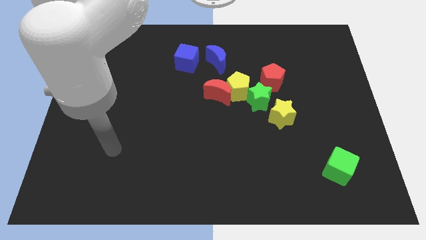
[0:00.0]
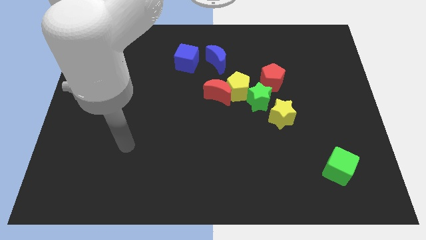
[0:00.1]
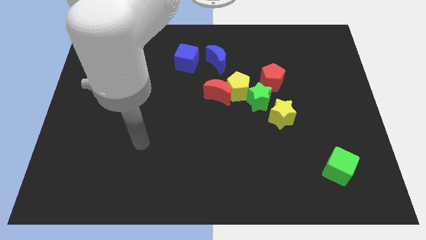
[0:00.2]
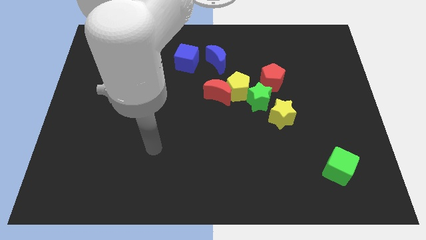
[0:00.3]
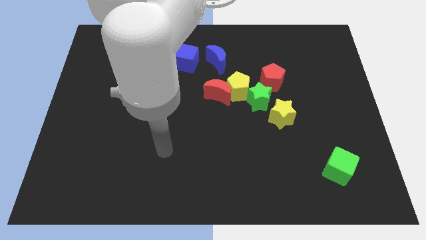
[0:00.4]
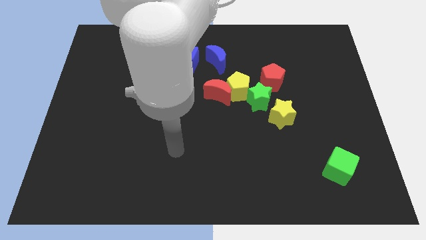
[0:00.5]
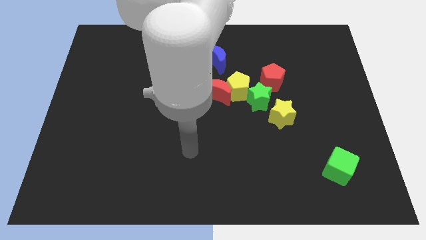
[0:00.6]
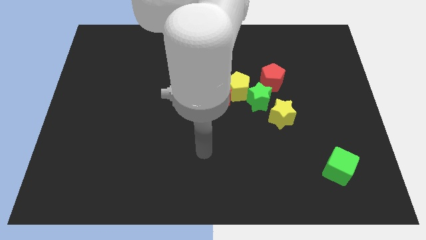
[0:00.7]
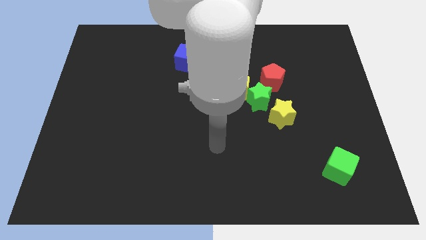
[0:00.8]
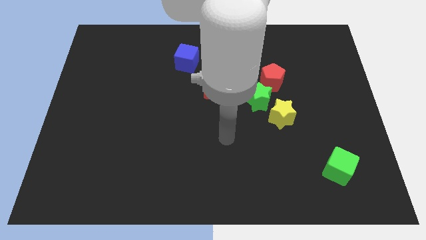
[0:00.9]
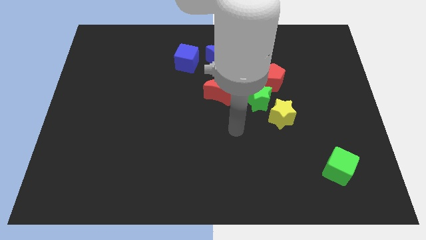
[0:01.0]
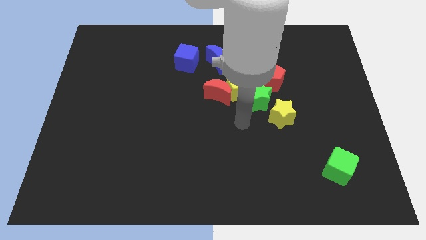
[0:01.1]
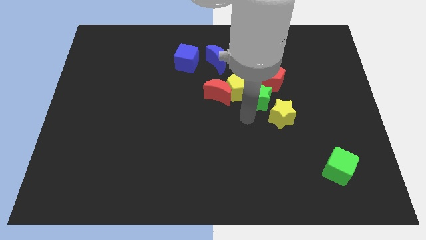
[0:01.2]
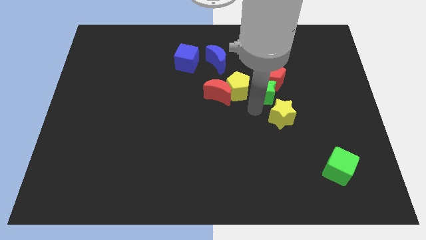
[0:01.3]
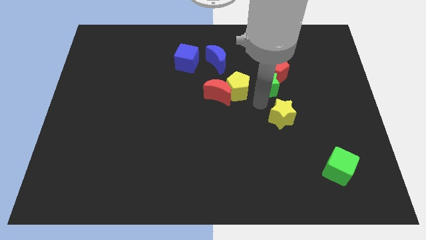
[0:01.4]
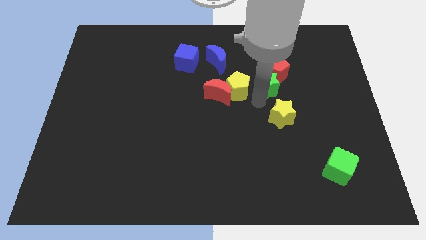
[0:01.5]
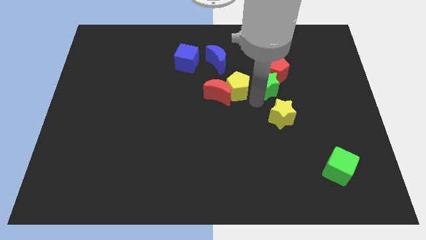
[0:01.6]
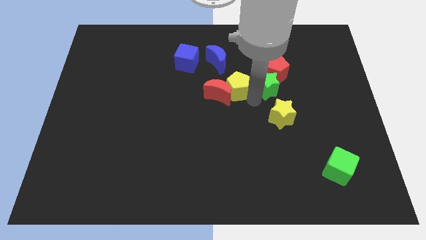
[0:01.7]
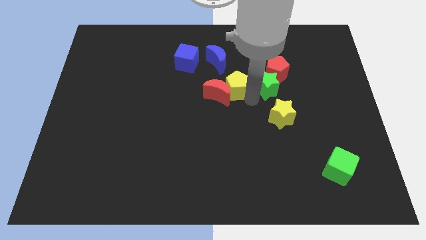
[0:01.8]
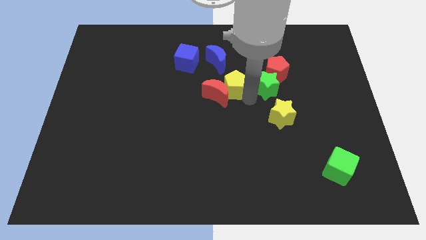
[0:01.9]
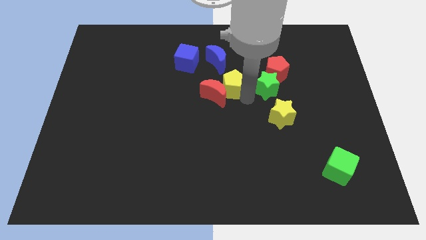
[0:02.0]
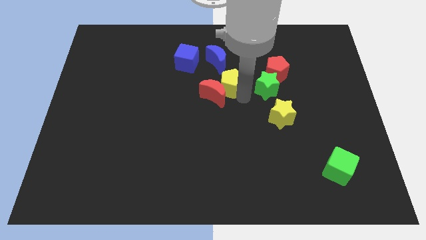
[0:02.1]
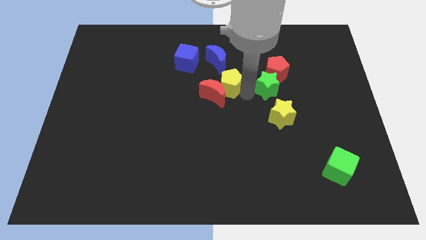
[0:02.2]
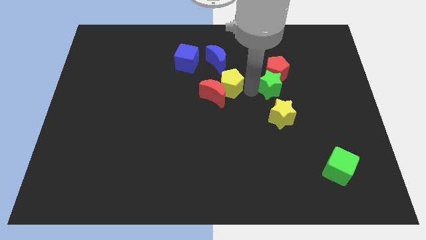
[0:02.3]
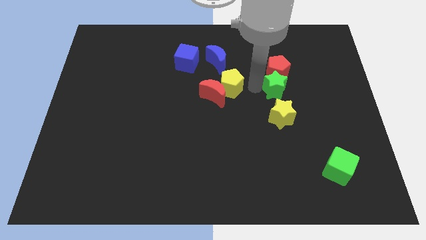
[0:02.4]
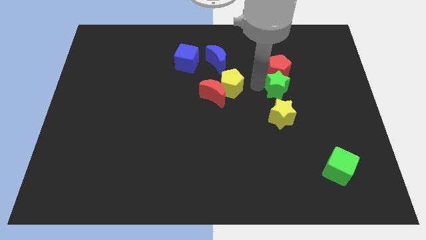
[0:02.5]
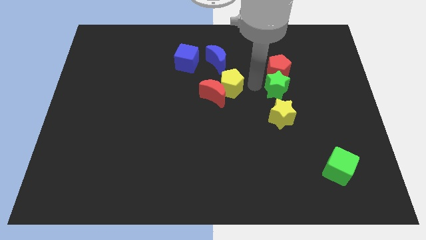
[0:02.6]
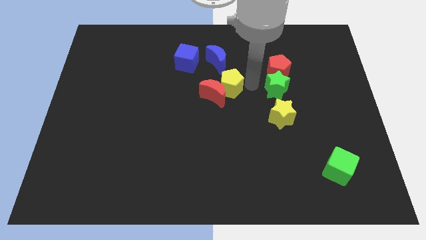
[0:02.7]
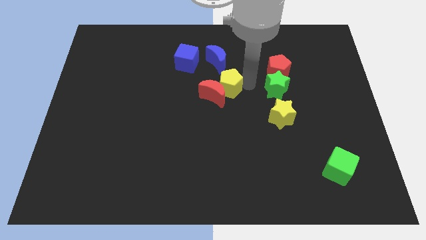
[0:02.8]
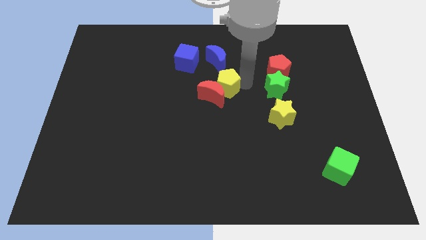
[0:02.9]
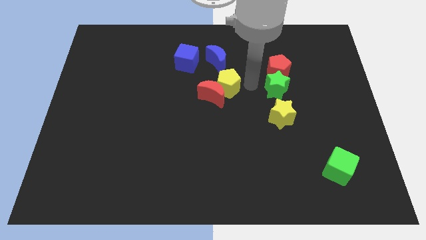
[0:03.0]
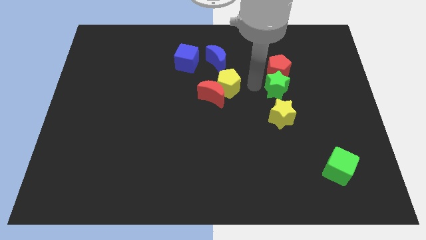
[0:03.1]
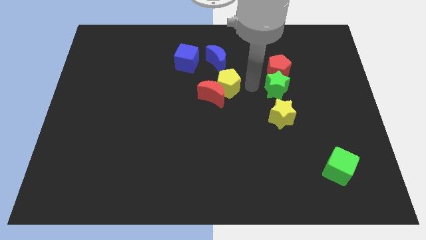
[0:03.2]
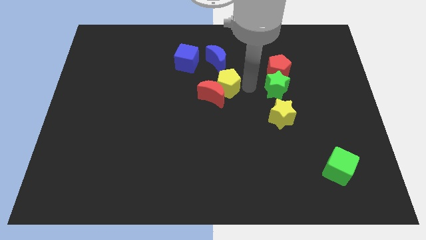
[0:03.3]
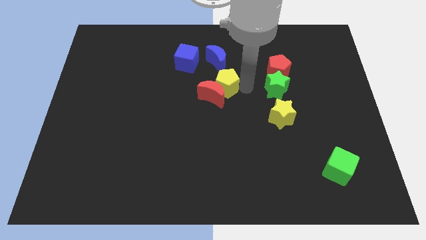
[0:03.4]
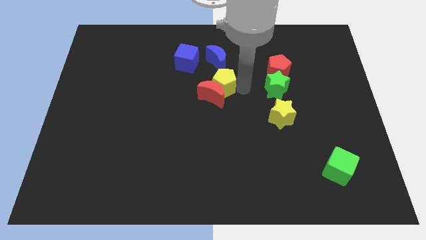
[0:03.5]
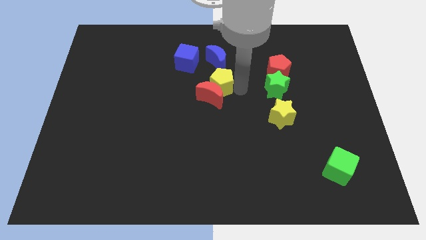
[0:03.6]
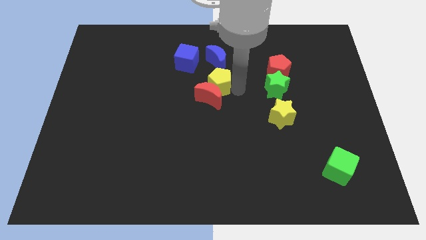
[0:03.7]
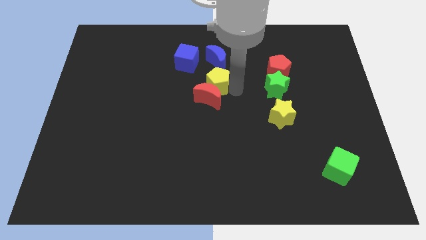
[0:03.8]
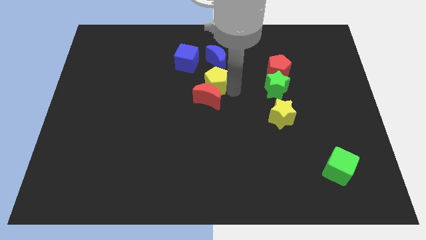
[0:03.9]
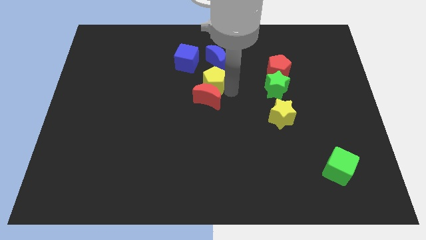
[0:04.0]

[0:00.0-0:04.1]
move the yellow pentagon away from the clump

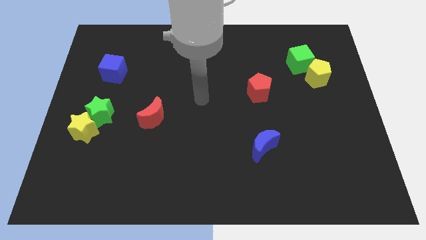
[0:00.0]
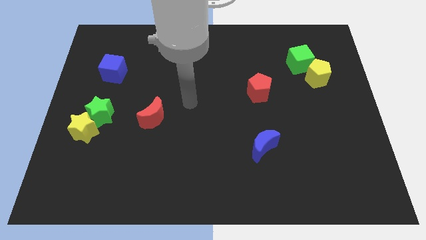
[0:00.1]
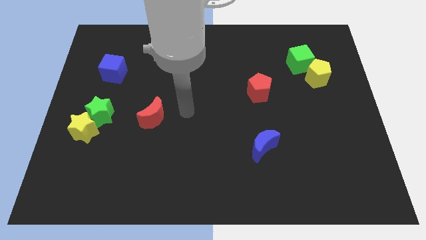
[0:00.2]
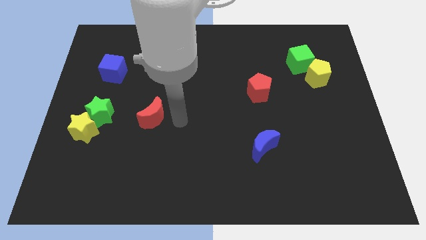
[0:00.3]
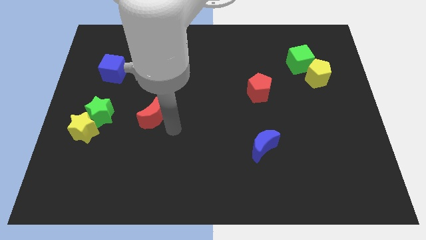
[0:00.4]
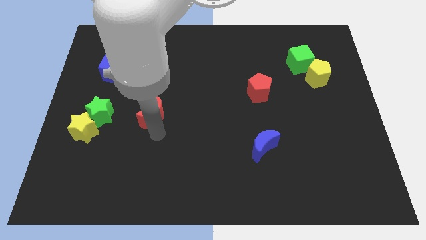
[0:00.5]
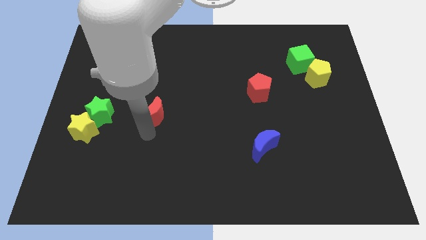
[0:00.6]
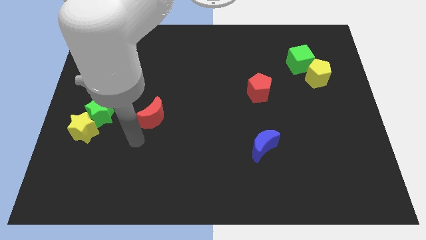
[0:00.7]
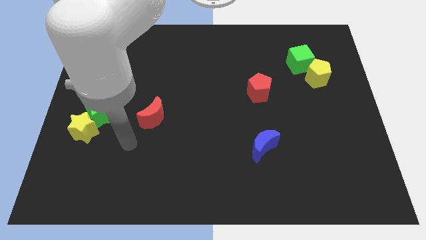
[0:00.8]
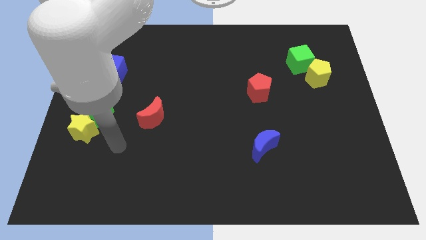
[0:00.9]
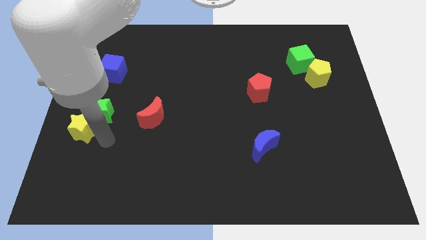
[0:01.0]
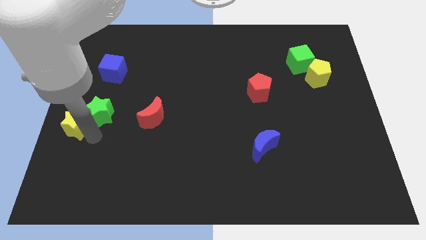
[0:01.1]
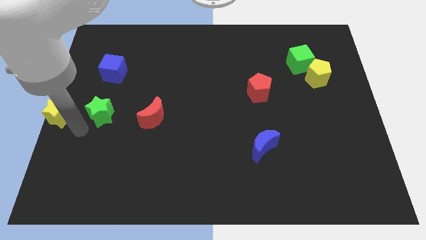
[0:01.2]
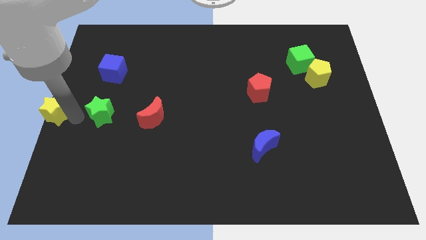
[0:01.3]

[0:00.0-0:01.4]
move the green star away from the yellow star

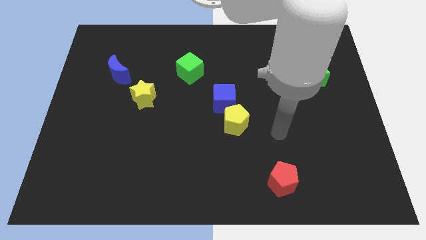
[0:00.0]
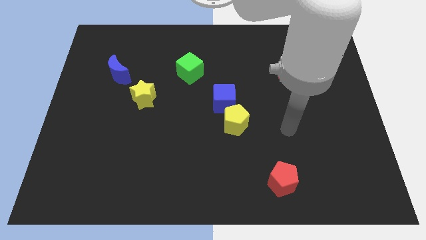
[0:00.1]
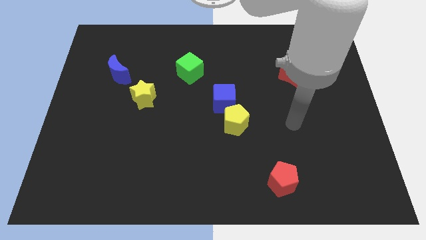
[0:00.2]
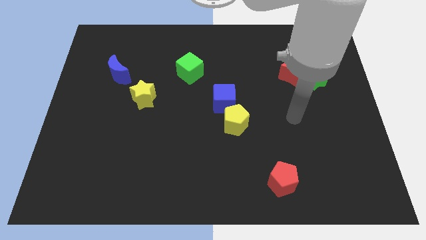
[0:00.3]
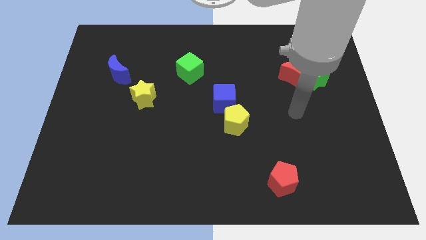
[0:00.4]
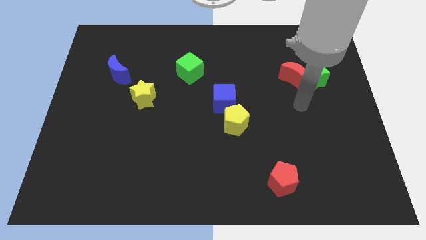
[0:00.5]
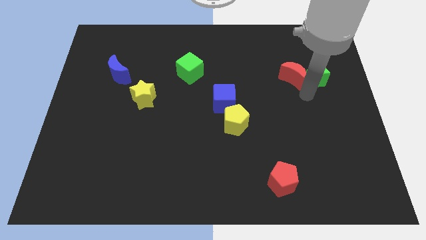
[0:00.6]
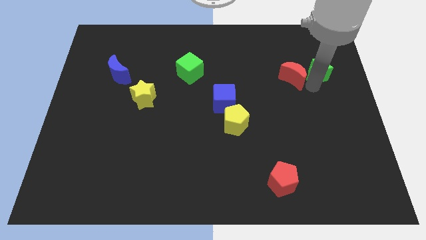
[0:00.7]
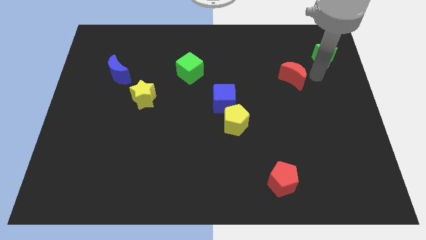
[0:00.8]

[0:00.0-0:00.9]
pull the red moon apart from the green star

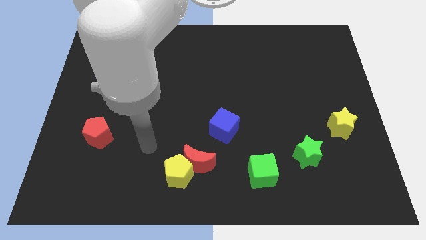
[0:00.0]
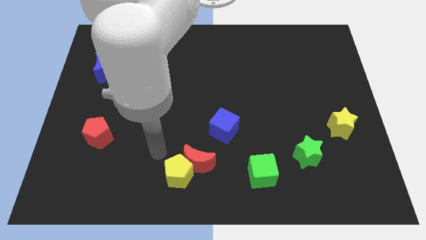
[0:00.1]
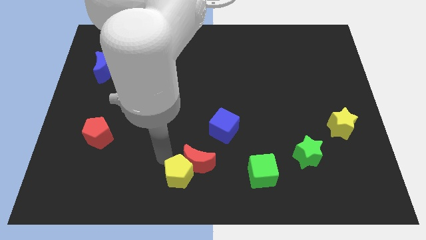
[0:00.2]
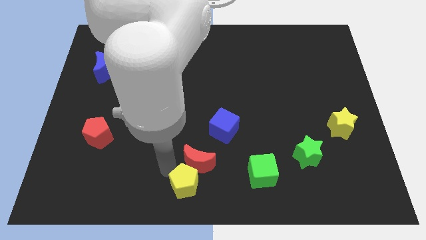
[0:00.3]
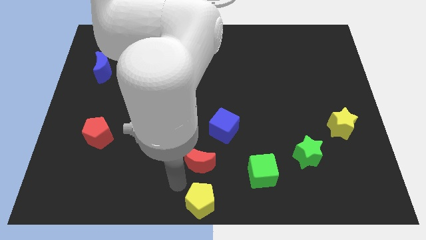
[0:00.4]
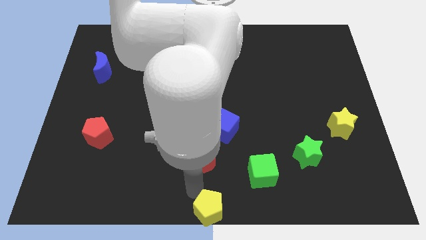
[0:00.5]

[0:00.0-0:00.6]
pull the red moon apart from the yellow pentagon

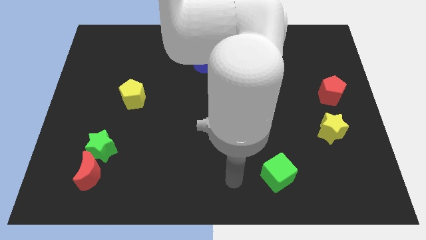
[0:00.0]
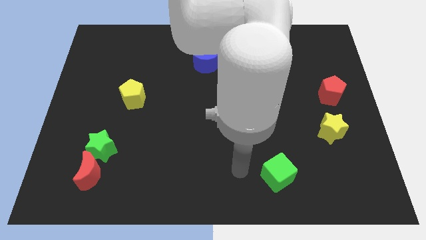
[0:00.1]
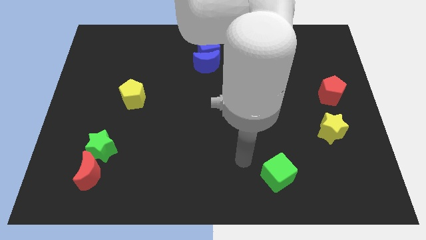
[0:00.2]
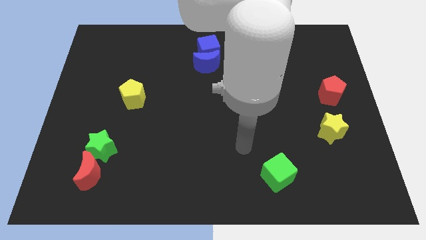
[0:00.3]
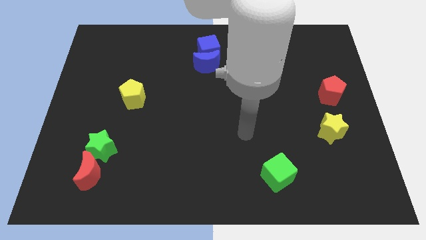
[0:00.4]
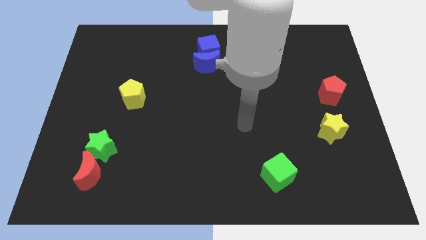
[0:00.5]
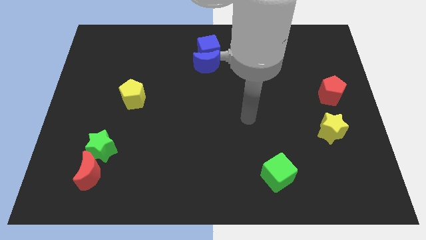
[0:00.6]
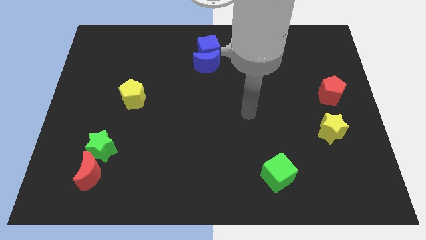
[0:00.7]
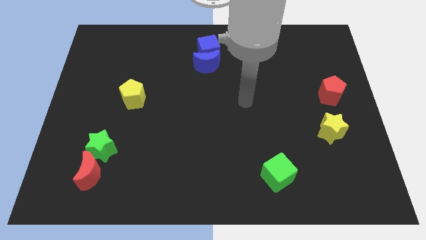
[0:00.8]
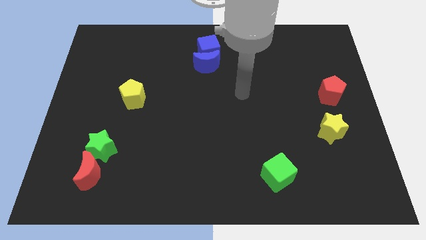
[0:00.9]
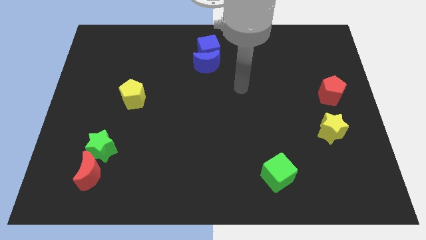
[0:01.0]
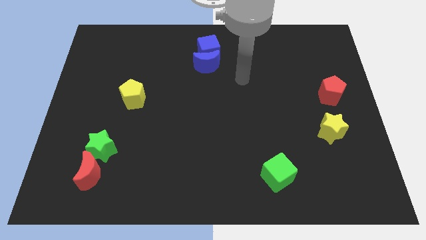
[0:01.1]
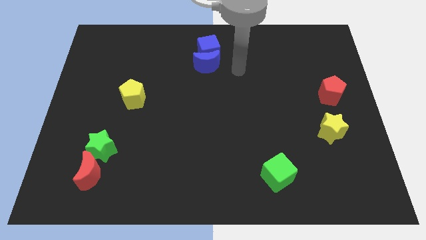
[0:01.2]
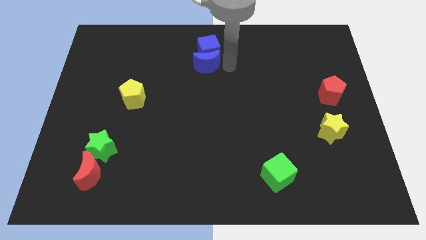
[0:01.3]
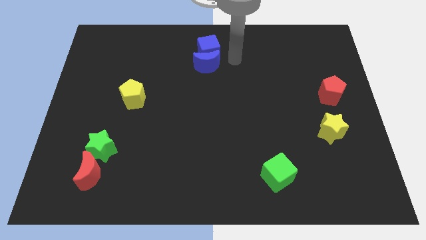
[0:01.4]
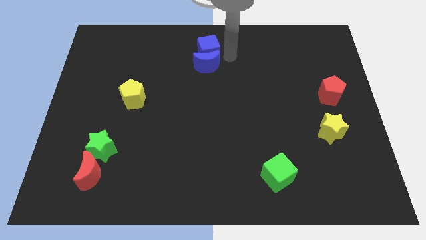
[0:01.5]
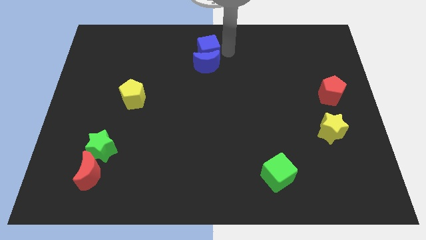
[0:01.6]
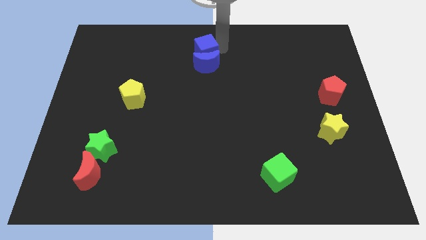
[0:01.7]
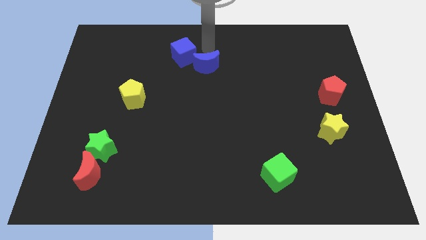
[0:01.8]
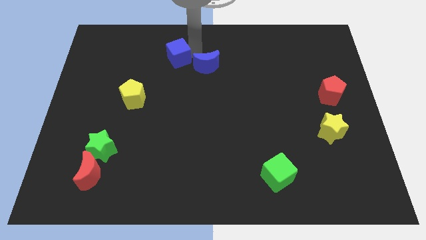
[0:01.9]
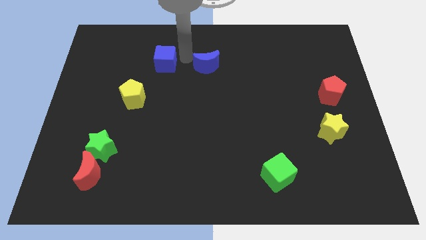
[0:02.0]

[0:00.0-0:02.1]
separate the blue moon from the blue cube
